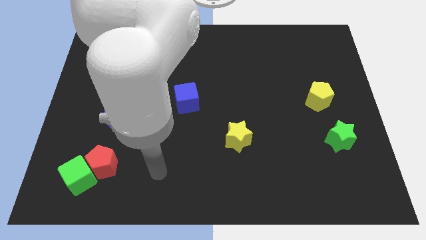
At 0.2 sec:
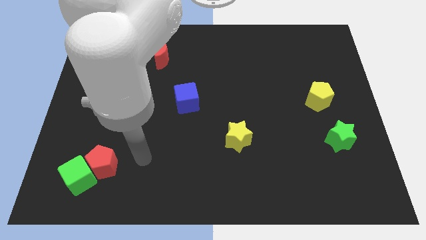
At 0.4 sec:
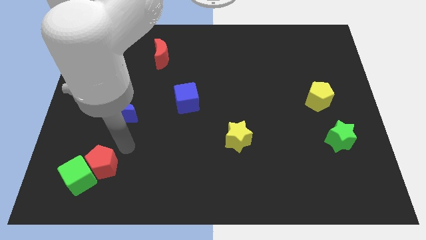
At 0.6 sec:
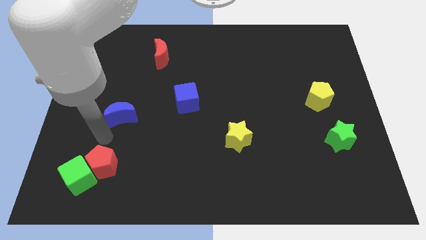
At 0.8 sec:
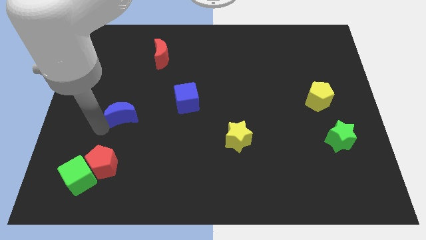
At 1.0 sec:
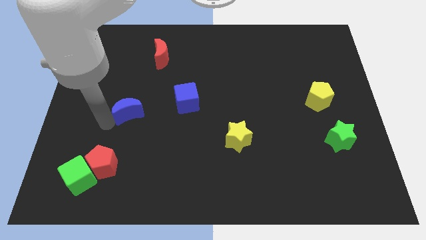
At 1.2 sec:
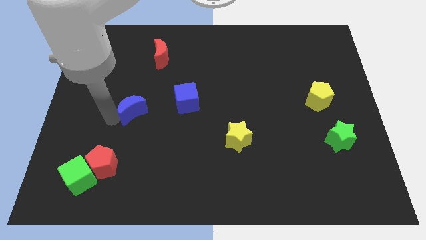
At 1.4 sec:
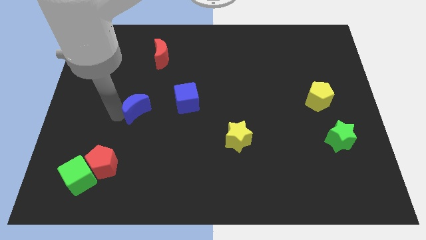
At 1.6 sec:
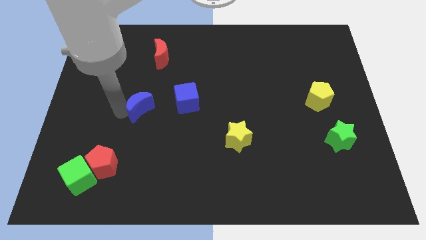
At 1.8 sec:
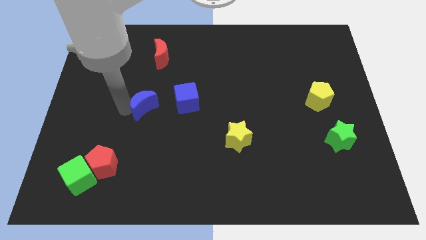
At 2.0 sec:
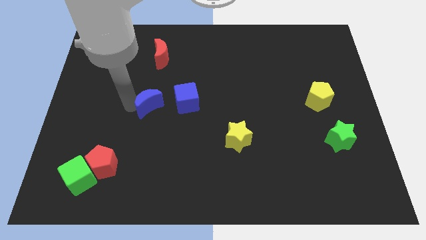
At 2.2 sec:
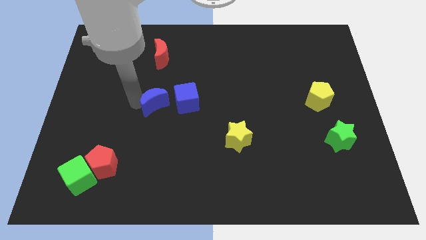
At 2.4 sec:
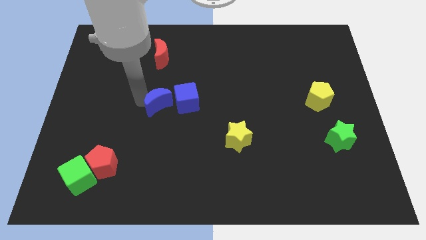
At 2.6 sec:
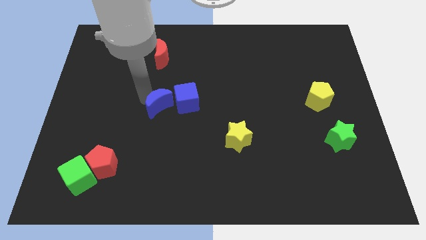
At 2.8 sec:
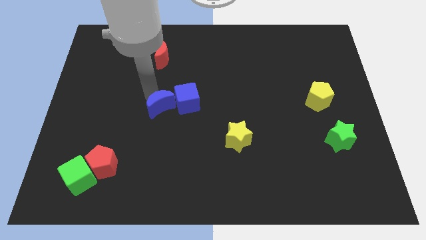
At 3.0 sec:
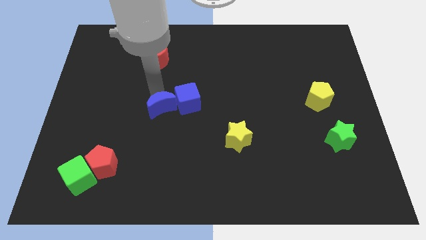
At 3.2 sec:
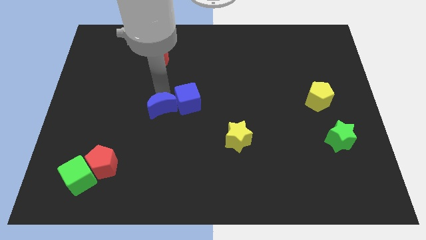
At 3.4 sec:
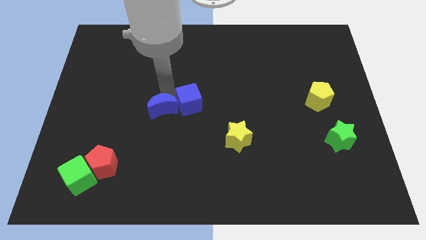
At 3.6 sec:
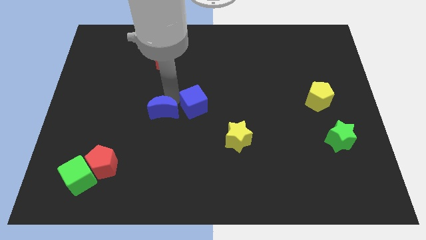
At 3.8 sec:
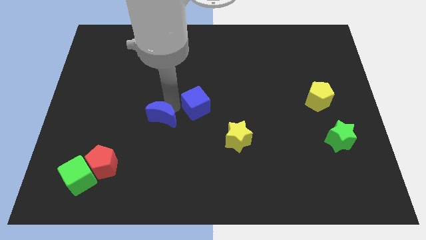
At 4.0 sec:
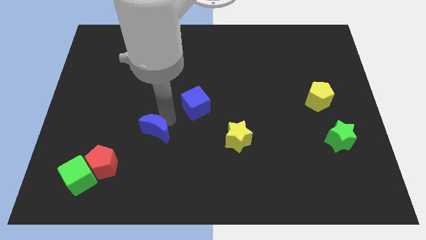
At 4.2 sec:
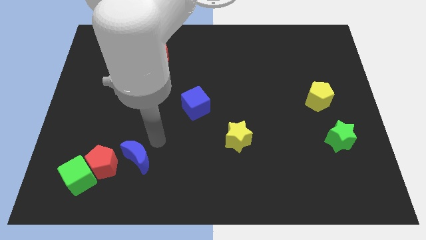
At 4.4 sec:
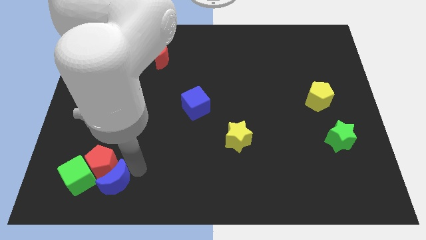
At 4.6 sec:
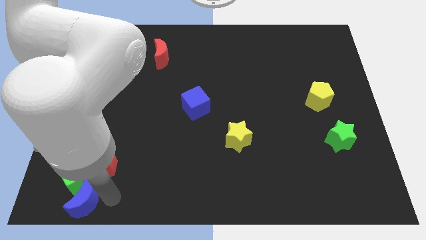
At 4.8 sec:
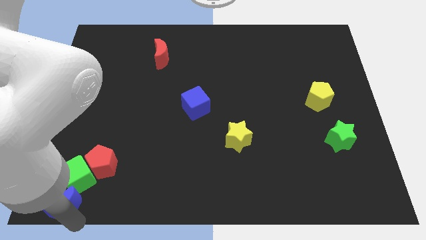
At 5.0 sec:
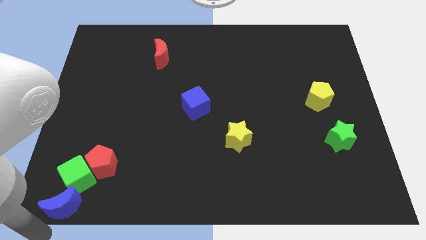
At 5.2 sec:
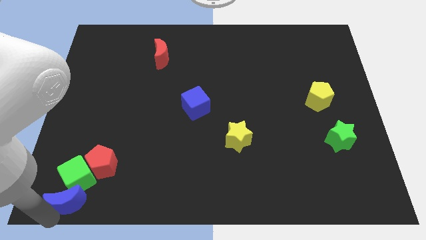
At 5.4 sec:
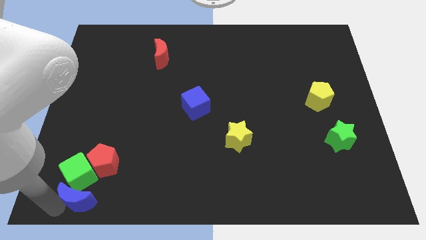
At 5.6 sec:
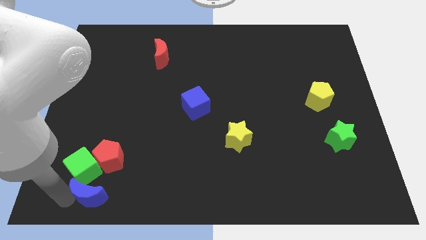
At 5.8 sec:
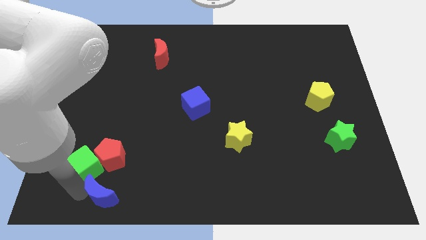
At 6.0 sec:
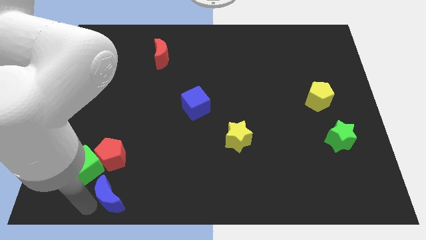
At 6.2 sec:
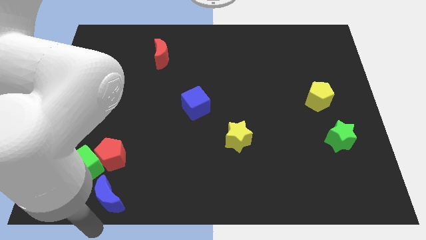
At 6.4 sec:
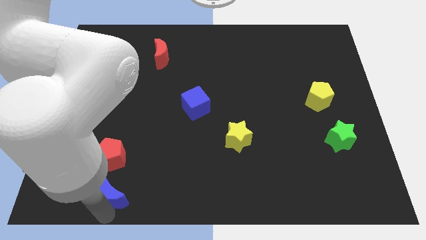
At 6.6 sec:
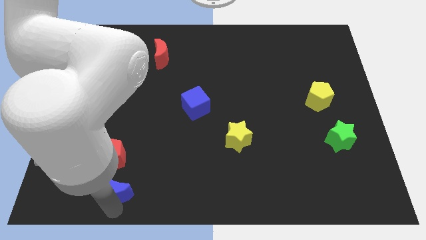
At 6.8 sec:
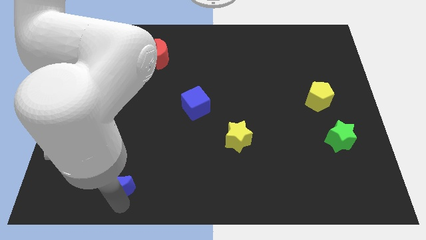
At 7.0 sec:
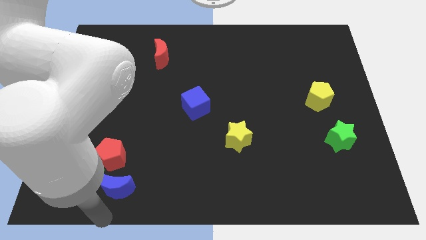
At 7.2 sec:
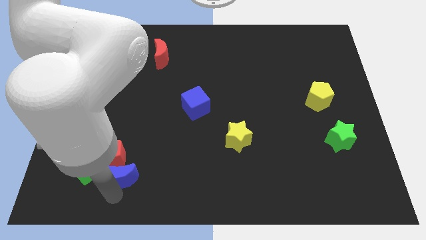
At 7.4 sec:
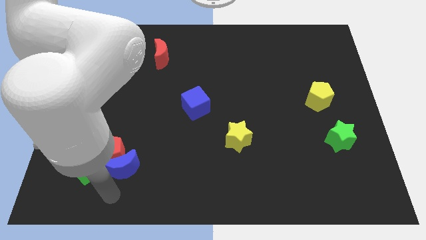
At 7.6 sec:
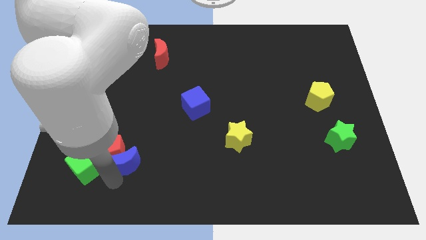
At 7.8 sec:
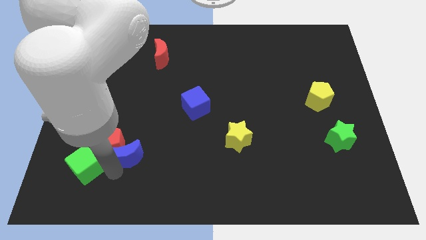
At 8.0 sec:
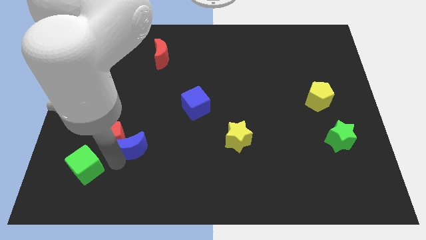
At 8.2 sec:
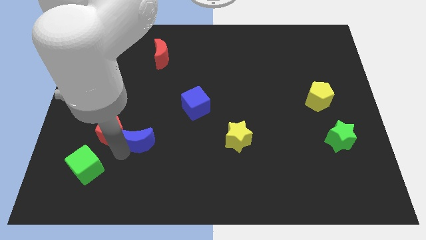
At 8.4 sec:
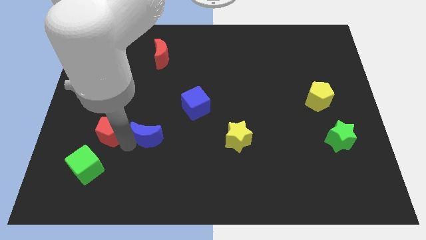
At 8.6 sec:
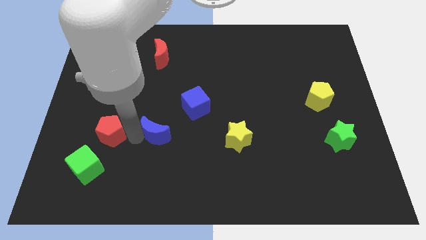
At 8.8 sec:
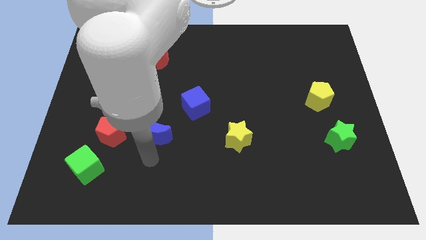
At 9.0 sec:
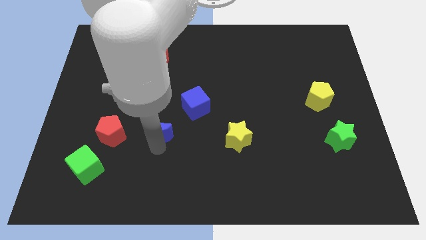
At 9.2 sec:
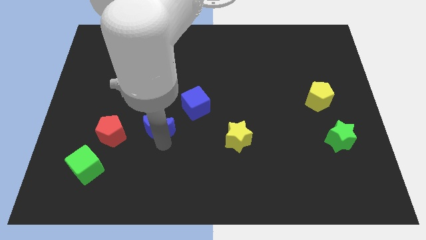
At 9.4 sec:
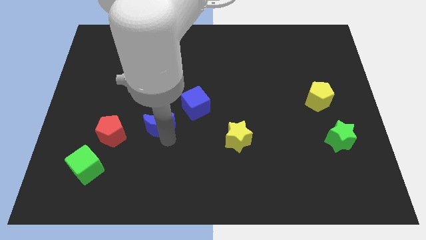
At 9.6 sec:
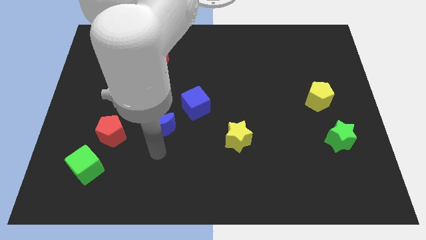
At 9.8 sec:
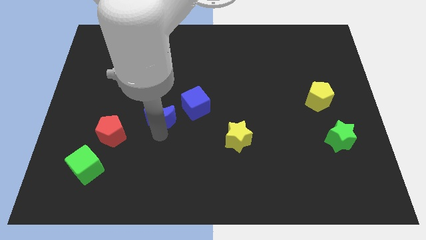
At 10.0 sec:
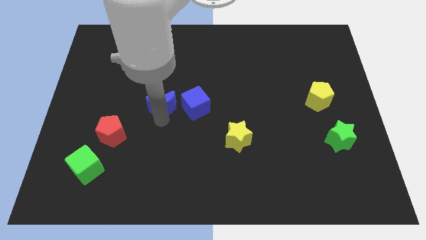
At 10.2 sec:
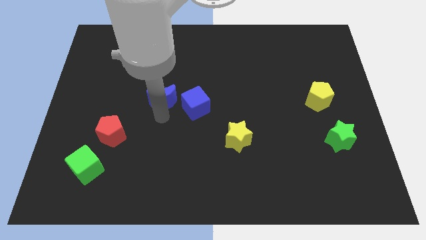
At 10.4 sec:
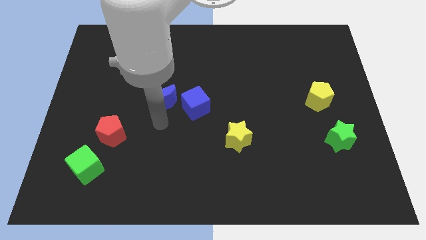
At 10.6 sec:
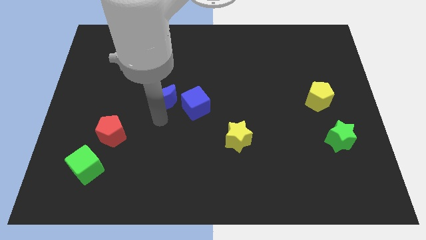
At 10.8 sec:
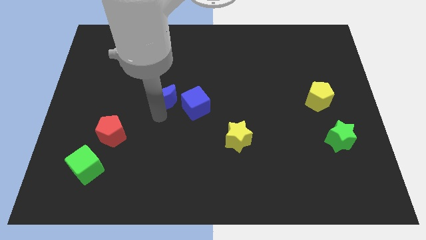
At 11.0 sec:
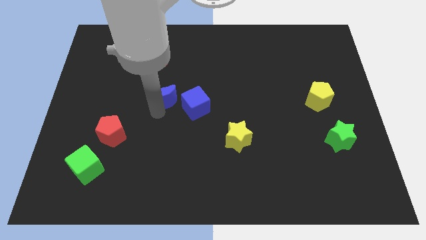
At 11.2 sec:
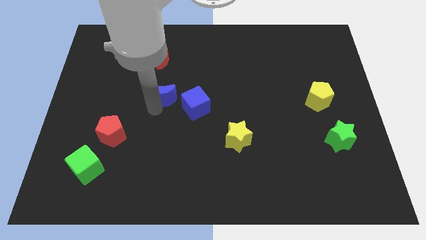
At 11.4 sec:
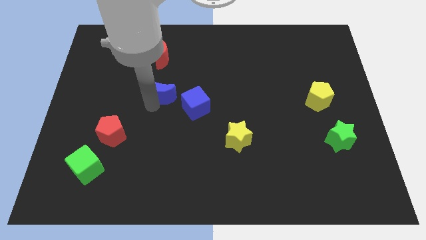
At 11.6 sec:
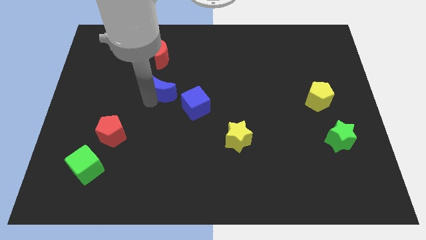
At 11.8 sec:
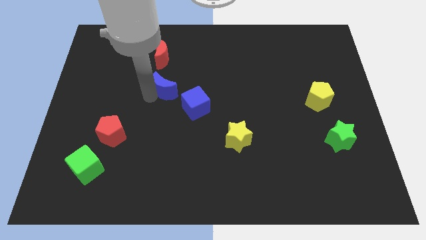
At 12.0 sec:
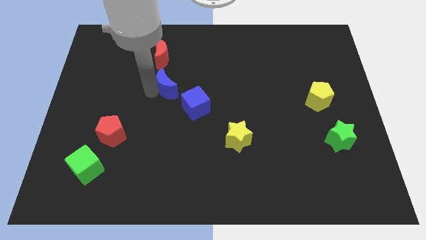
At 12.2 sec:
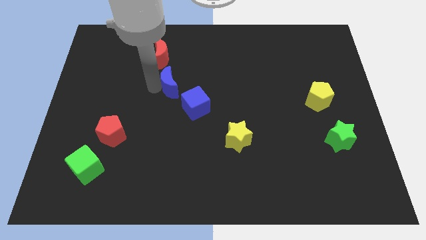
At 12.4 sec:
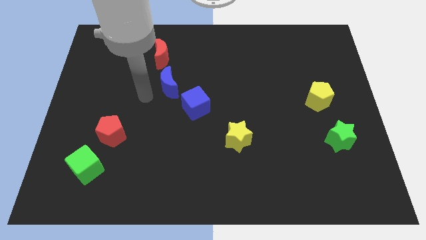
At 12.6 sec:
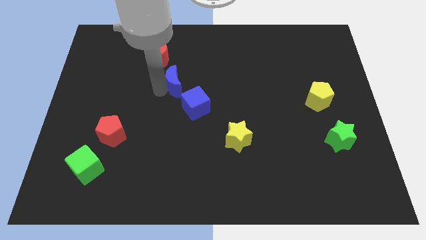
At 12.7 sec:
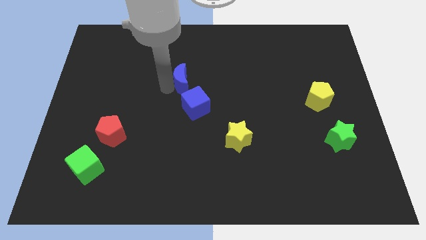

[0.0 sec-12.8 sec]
put the blue moon above the blue cube

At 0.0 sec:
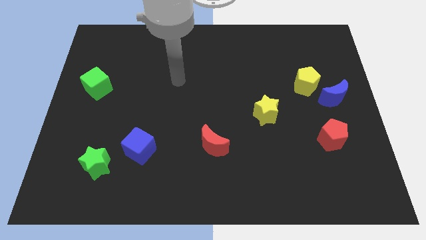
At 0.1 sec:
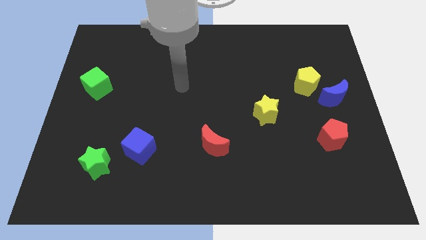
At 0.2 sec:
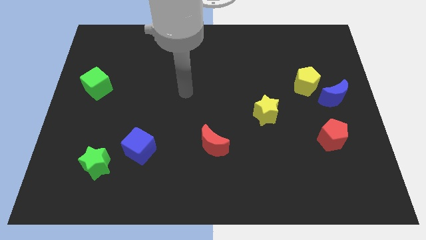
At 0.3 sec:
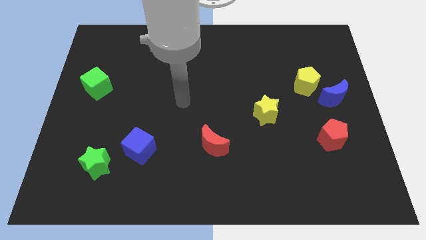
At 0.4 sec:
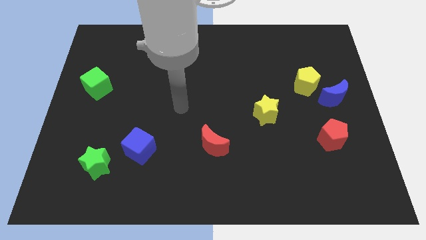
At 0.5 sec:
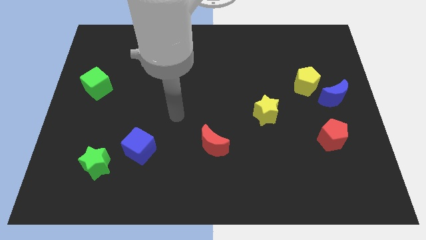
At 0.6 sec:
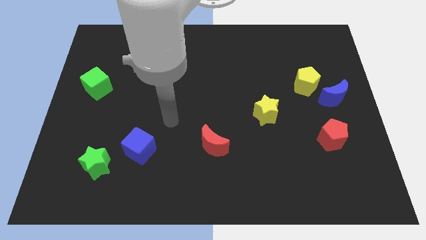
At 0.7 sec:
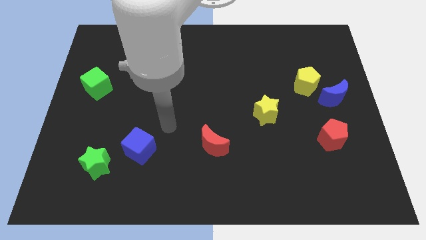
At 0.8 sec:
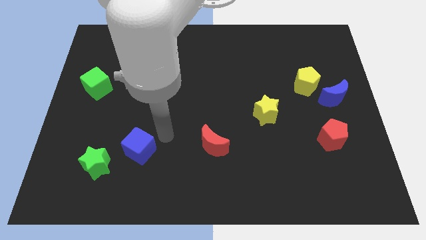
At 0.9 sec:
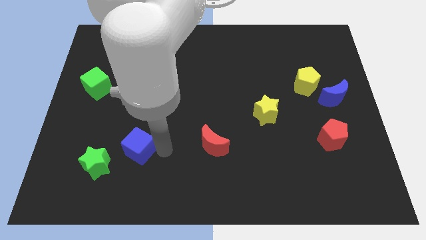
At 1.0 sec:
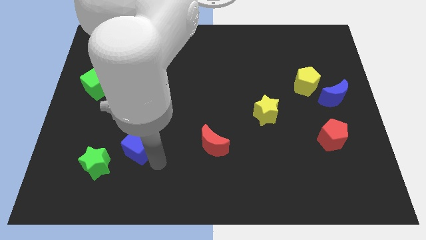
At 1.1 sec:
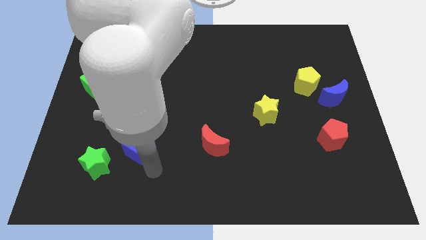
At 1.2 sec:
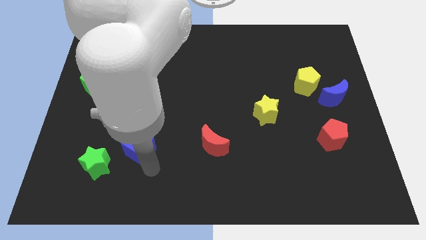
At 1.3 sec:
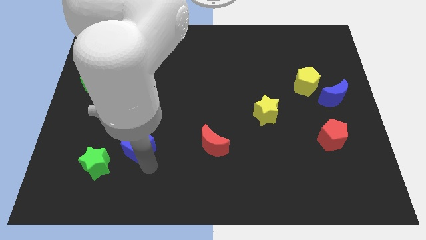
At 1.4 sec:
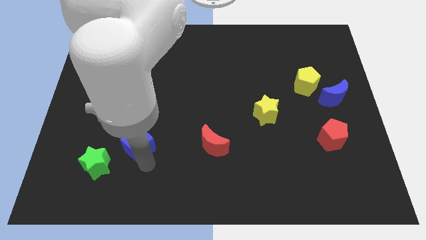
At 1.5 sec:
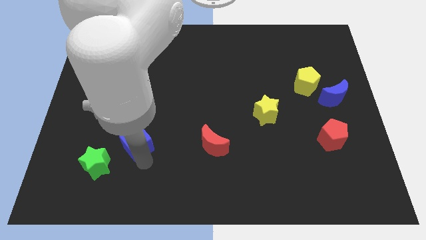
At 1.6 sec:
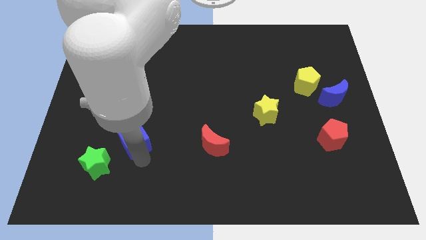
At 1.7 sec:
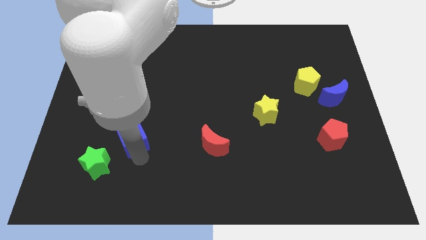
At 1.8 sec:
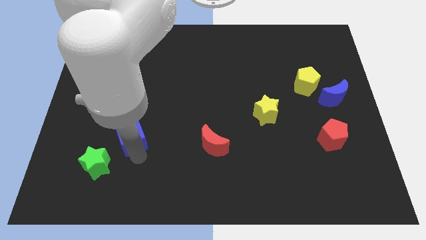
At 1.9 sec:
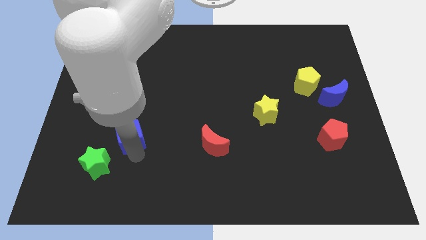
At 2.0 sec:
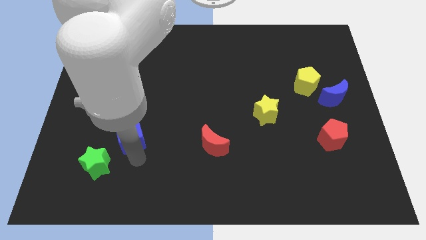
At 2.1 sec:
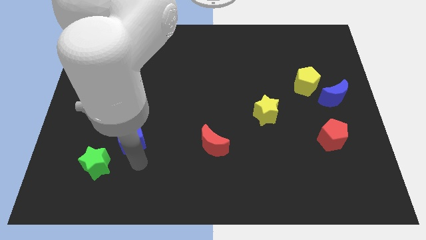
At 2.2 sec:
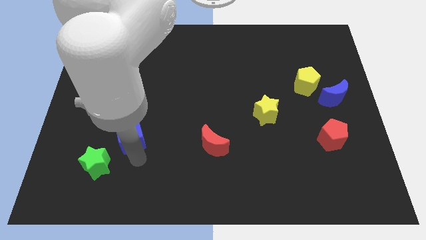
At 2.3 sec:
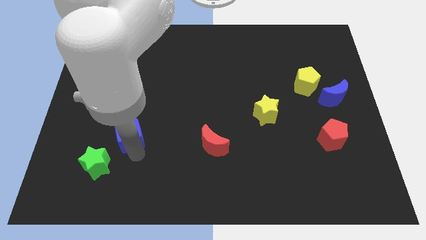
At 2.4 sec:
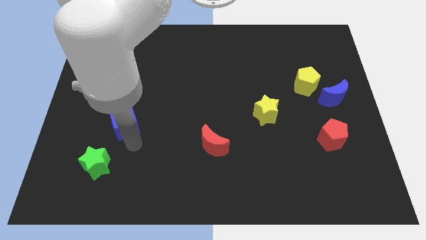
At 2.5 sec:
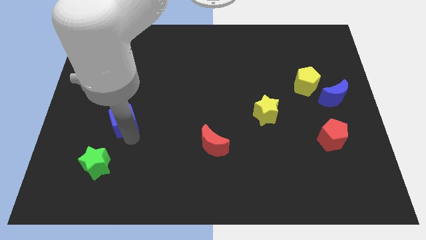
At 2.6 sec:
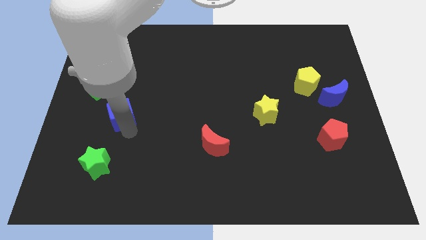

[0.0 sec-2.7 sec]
put the blue cube to the bottom right of the green cube
